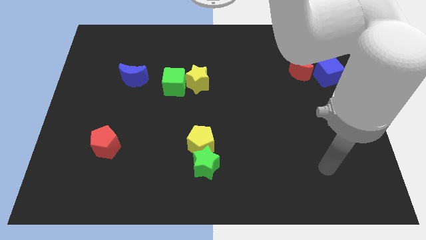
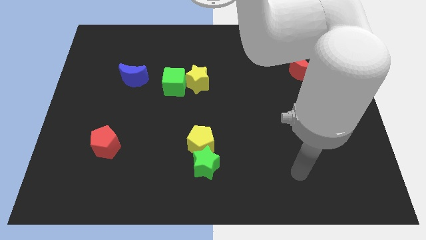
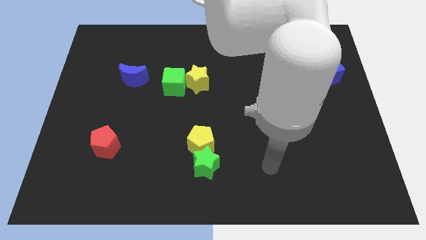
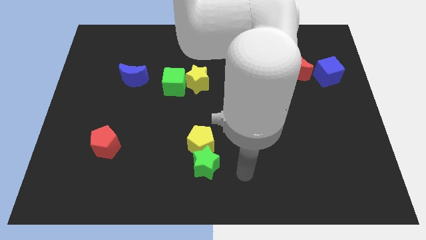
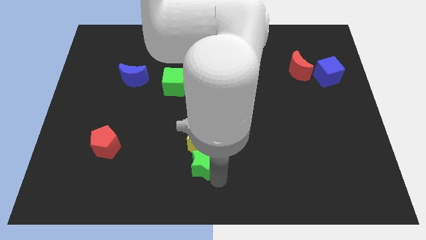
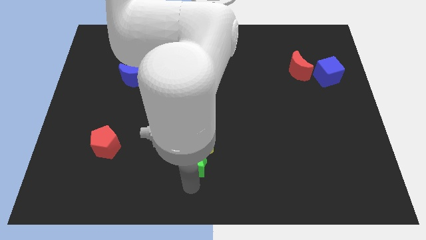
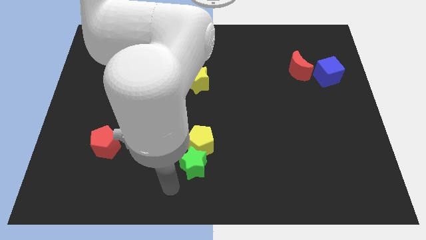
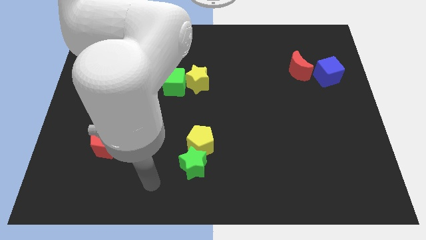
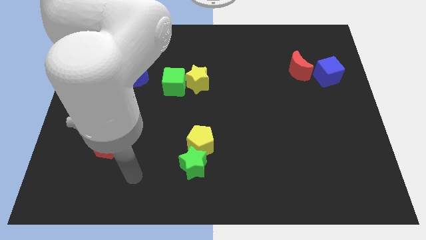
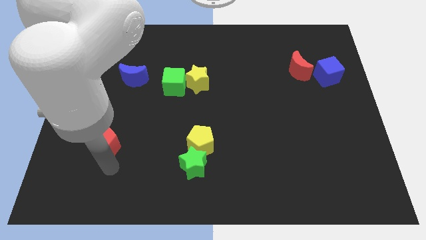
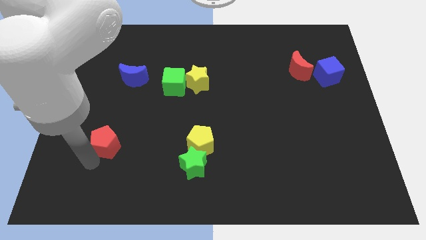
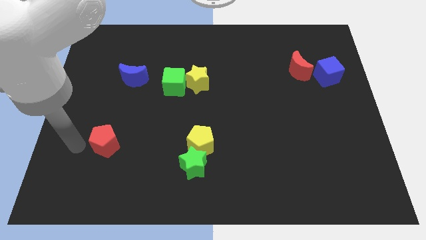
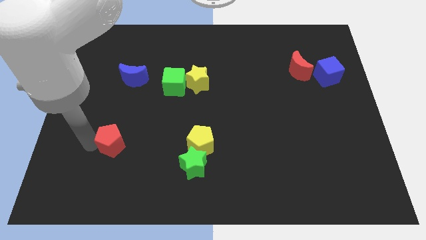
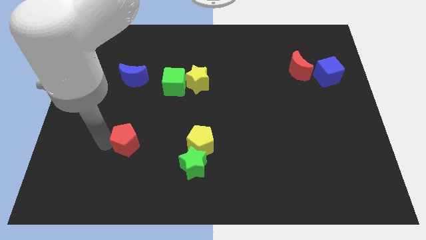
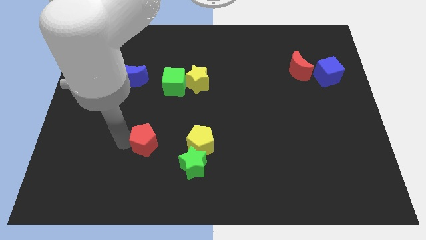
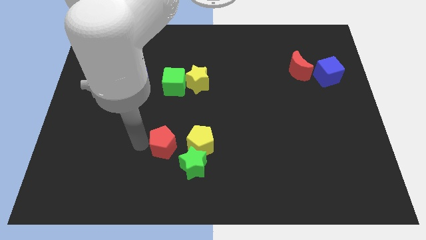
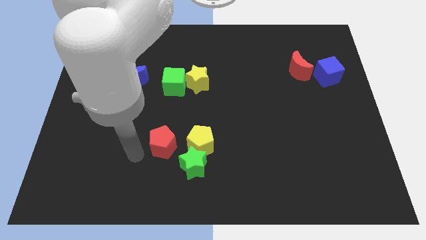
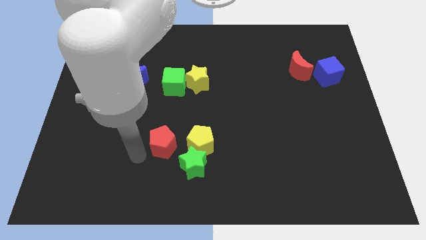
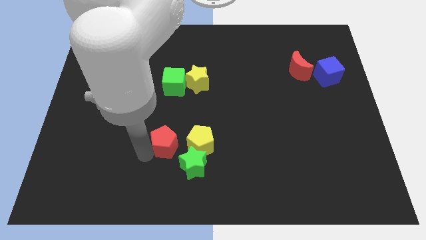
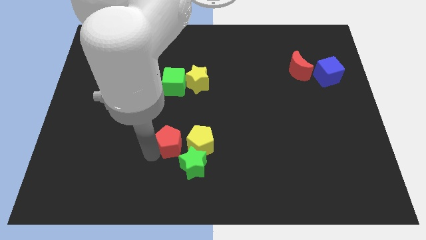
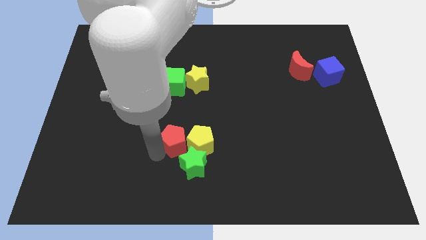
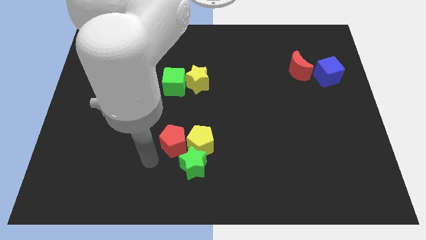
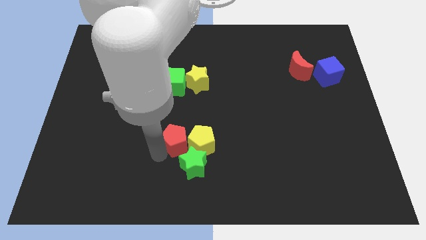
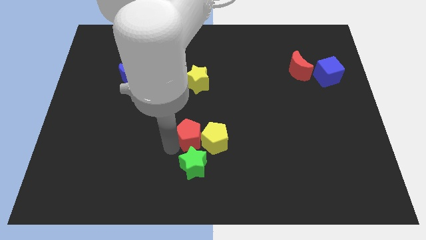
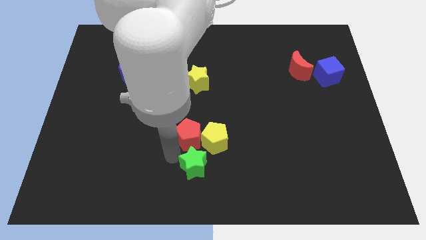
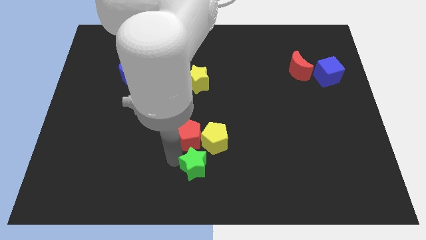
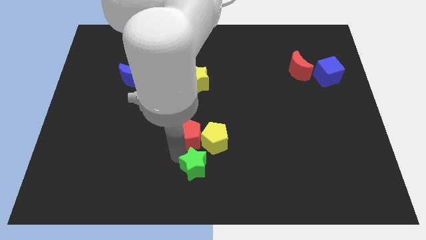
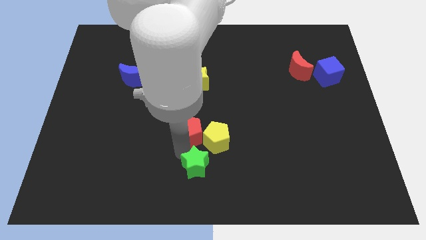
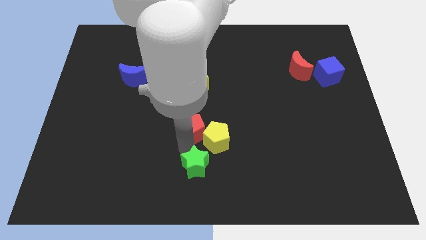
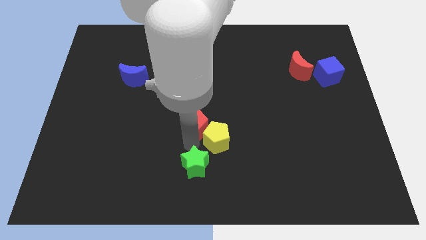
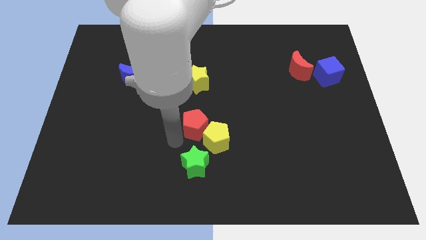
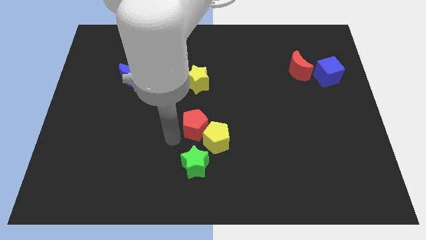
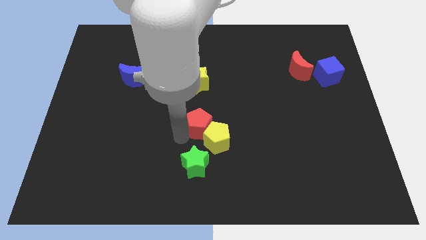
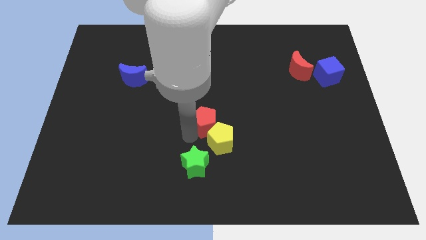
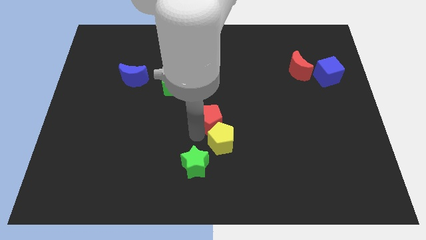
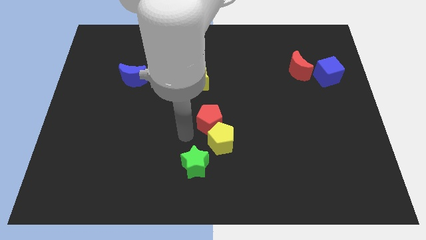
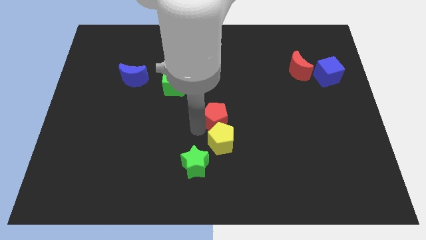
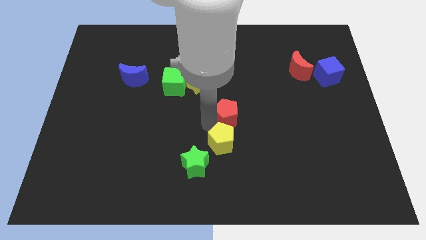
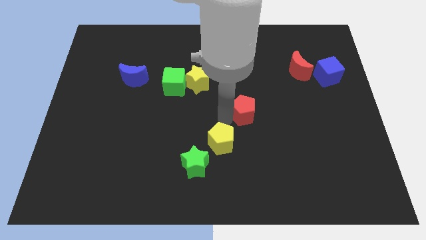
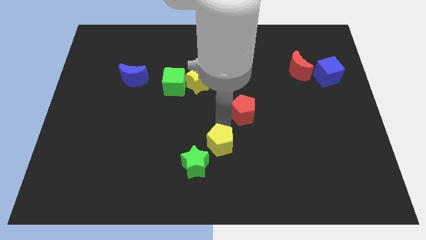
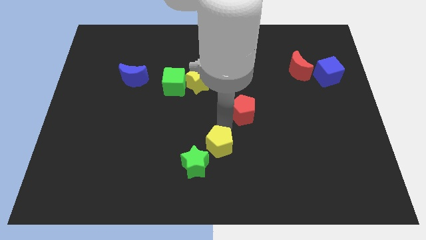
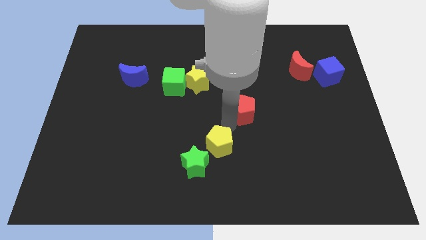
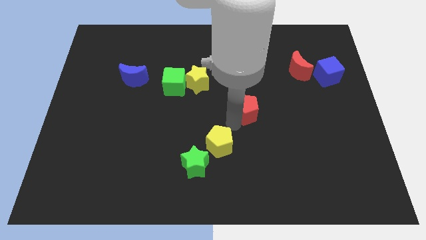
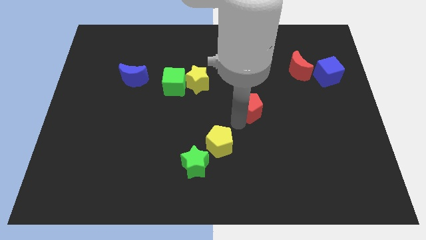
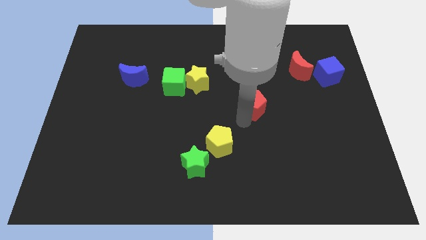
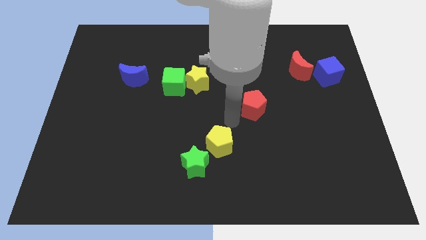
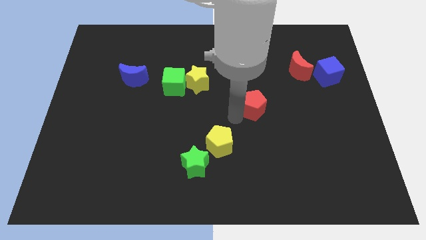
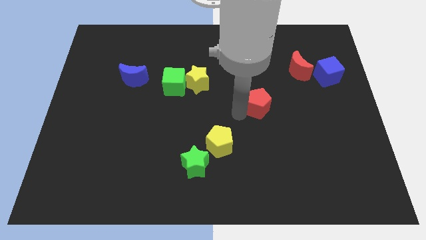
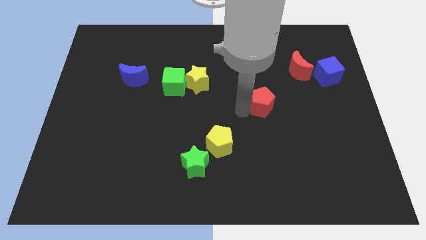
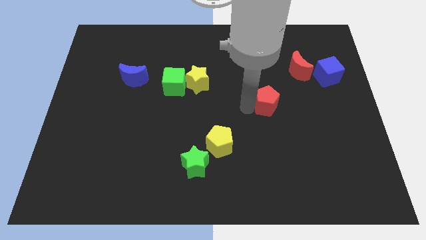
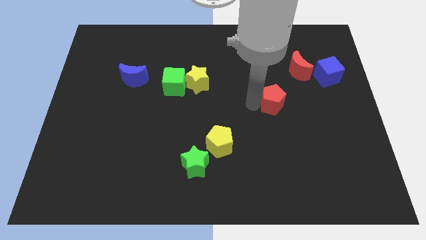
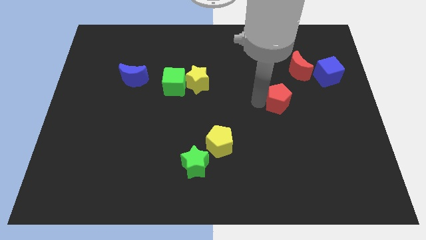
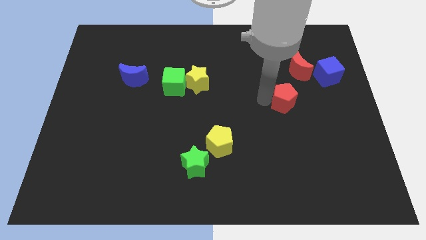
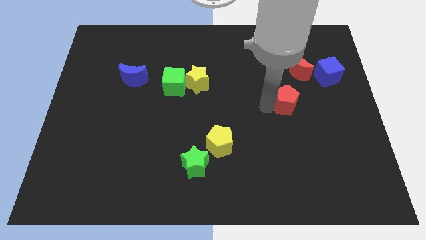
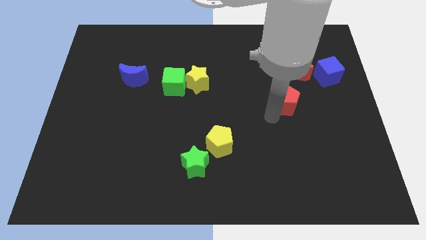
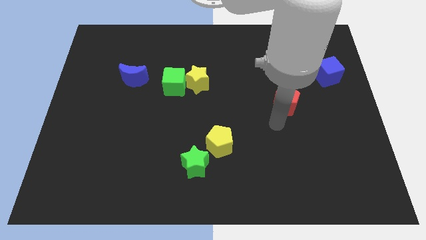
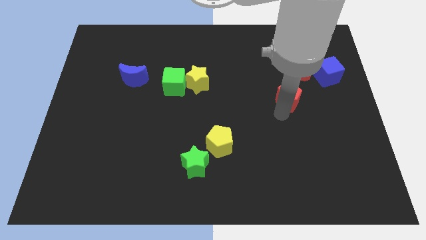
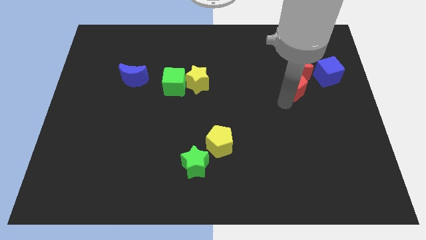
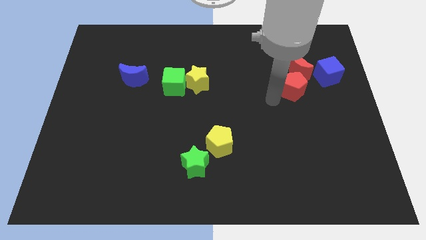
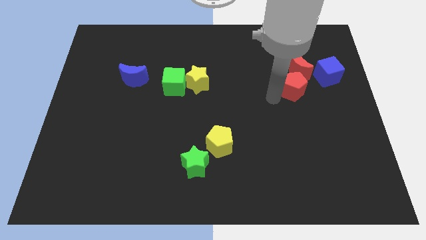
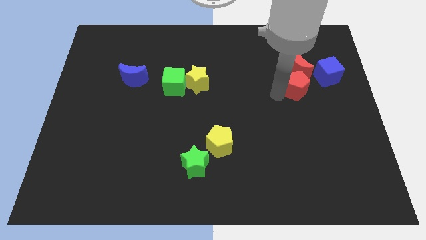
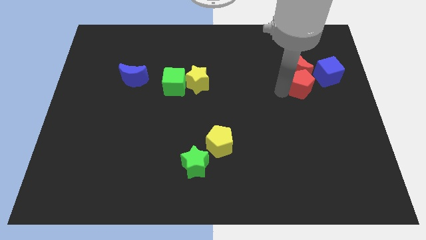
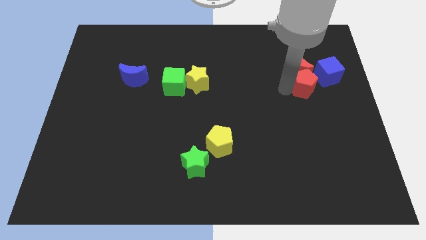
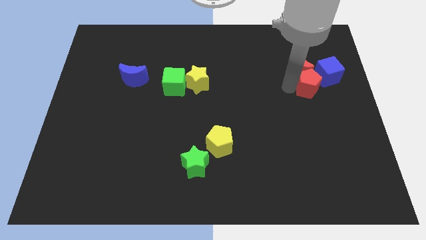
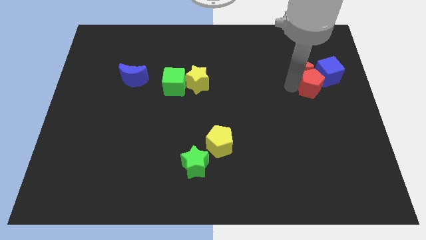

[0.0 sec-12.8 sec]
slide the red pentagon close to the blue cube

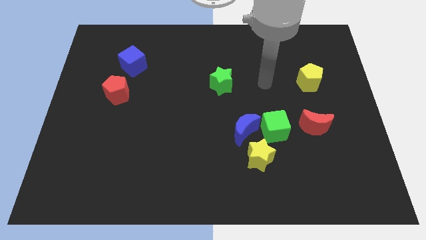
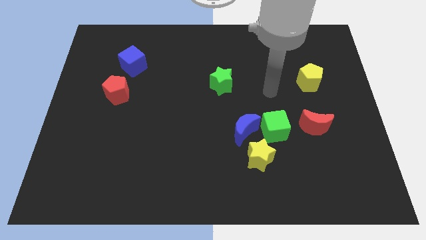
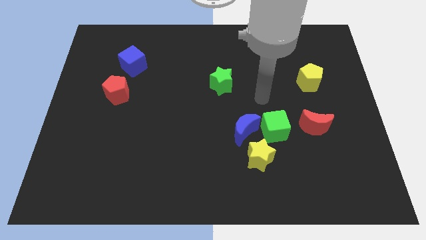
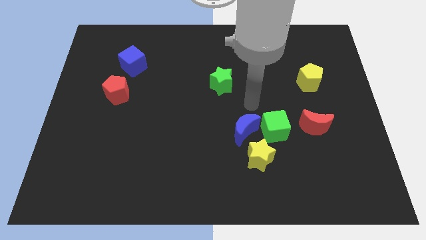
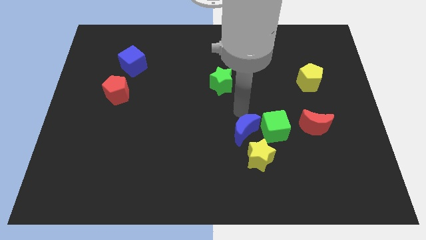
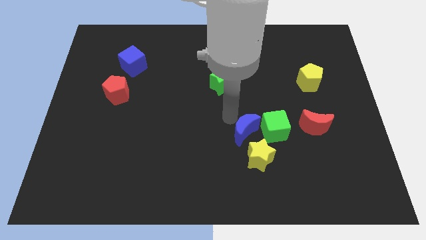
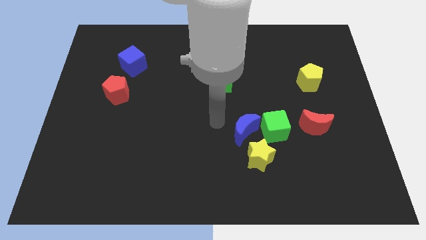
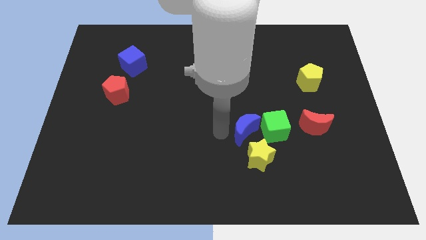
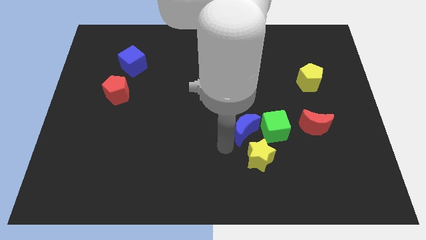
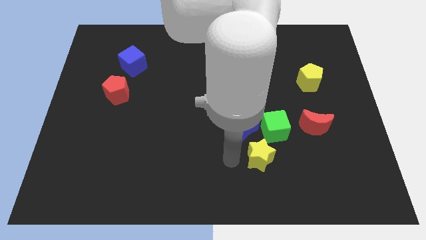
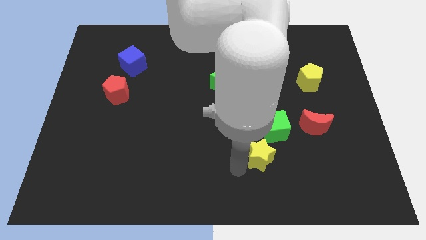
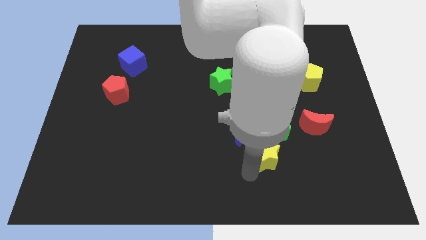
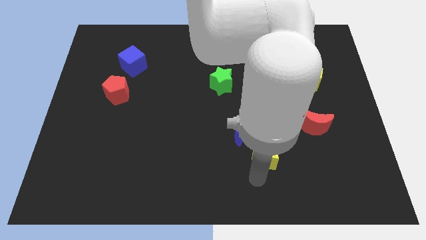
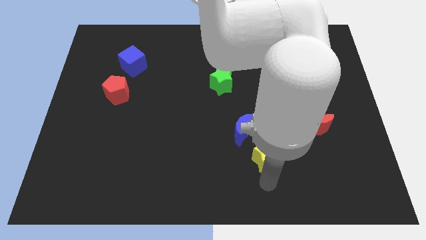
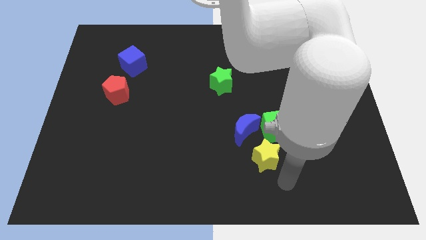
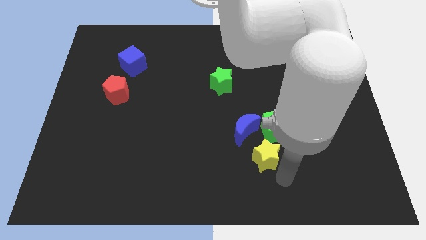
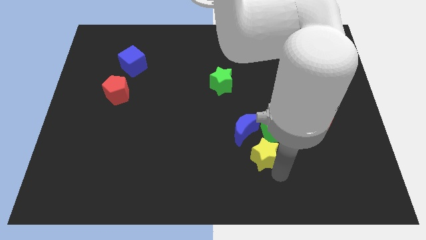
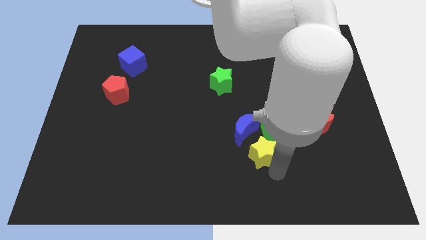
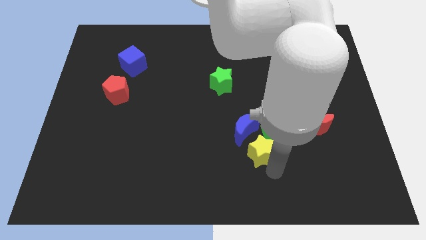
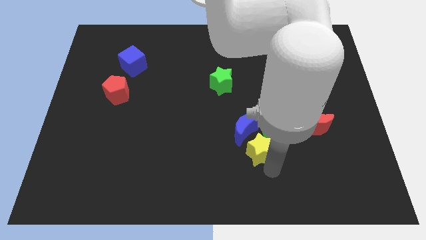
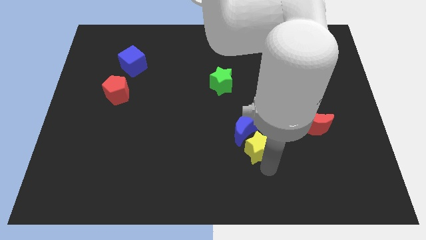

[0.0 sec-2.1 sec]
slide the yellow star next to the blue moon
